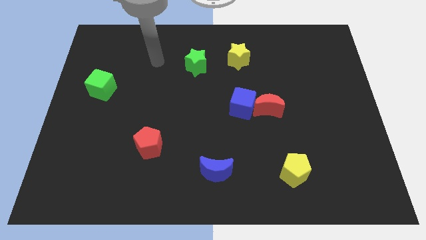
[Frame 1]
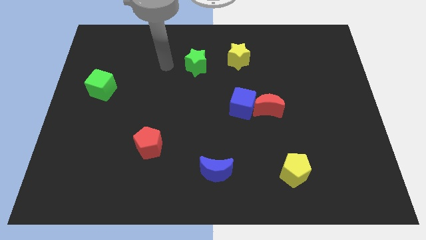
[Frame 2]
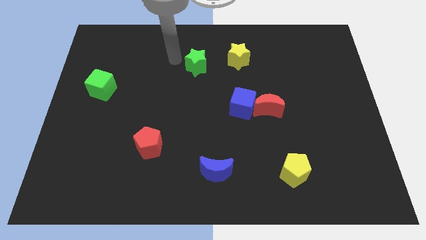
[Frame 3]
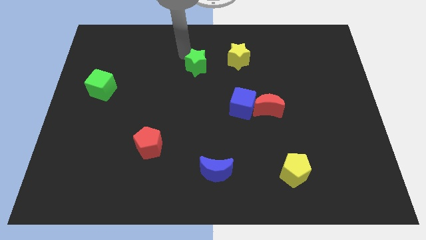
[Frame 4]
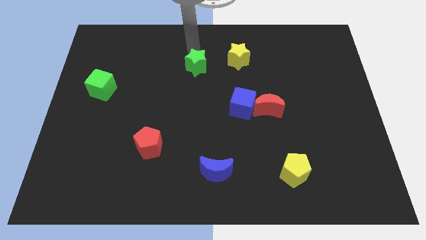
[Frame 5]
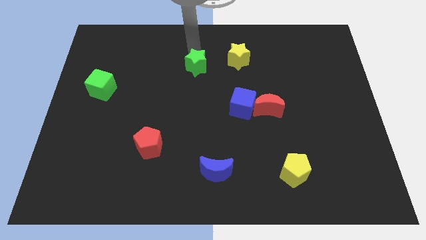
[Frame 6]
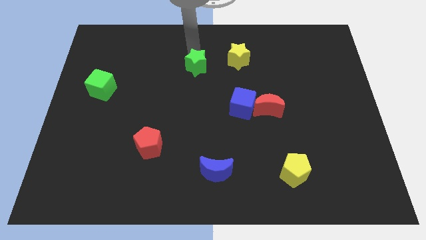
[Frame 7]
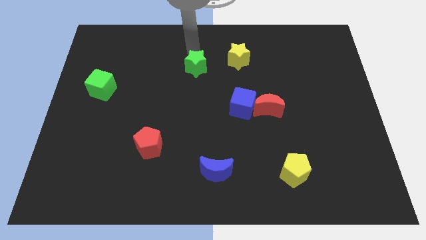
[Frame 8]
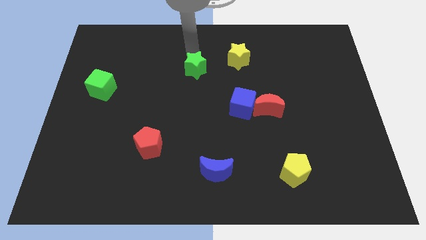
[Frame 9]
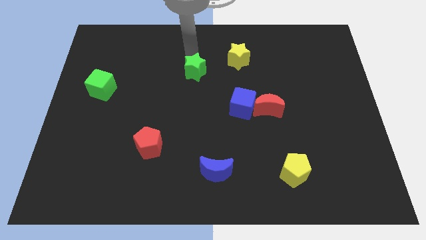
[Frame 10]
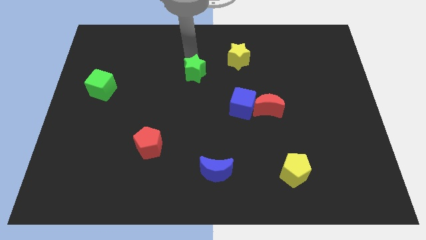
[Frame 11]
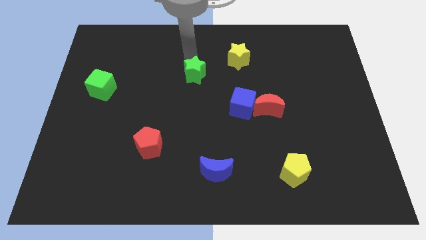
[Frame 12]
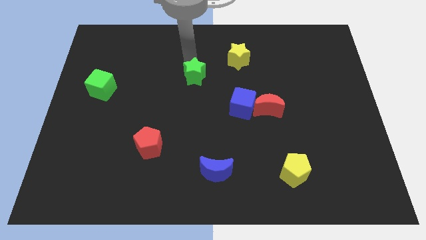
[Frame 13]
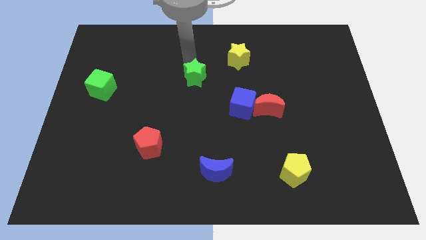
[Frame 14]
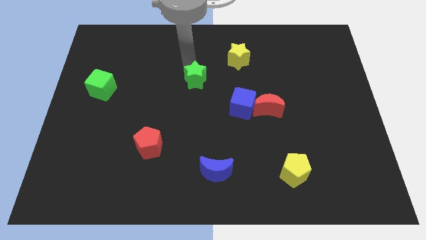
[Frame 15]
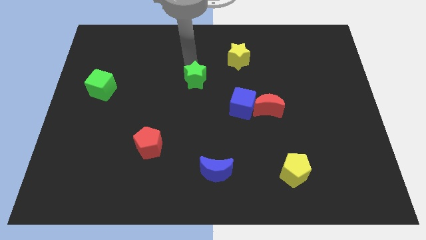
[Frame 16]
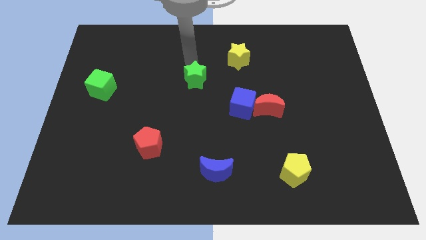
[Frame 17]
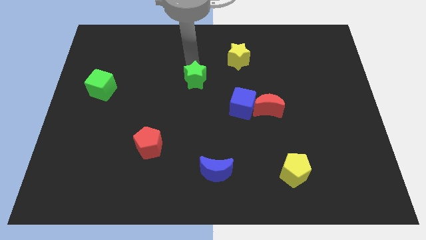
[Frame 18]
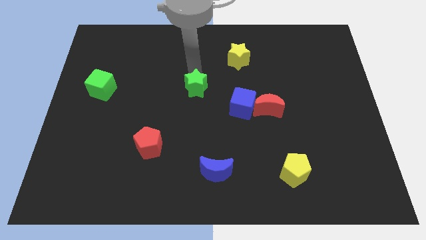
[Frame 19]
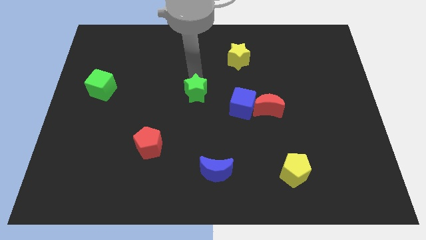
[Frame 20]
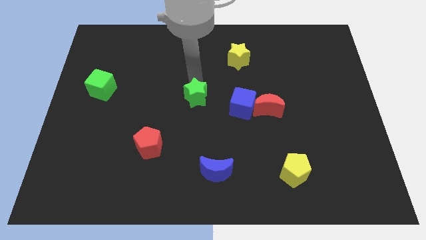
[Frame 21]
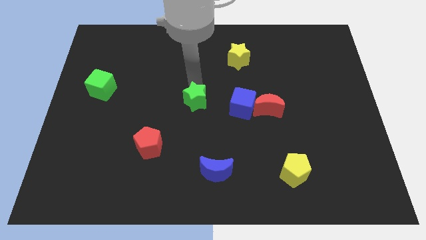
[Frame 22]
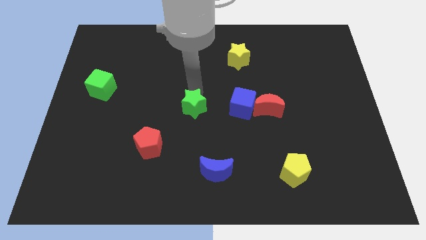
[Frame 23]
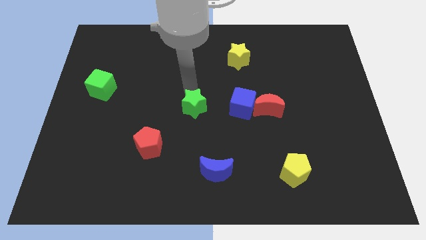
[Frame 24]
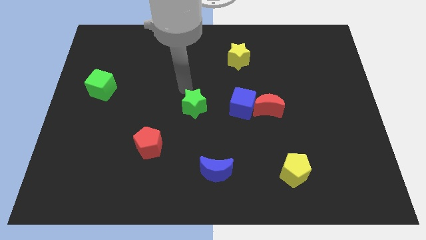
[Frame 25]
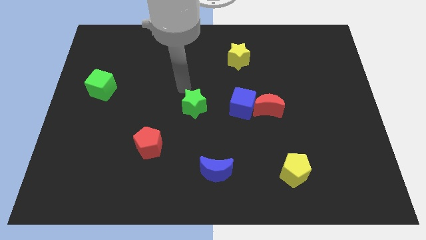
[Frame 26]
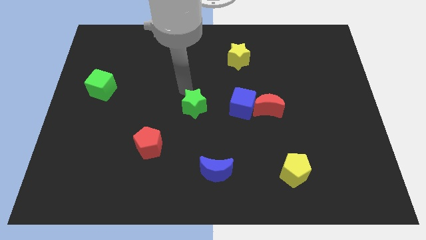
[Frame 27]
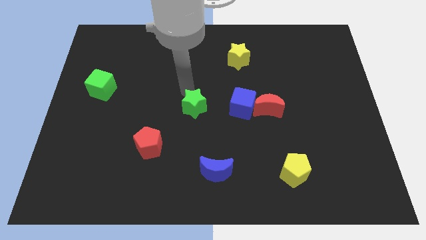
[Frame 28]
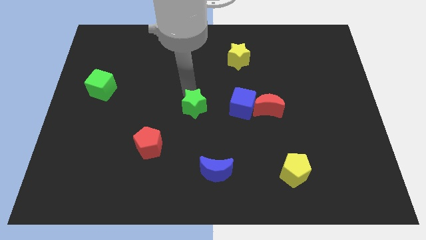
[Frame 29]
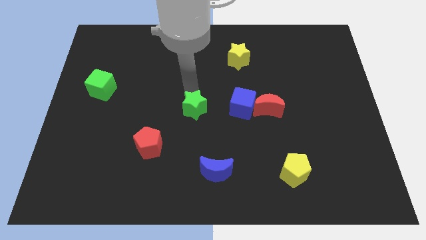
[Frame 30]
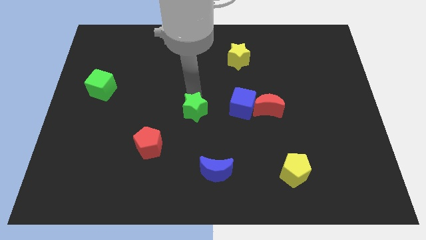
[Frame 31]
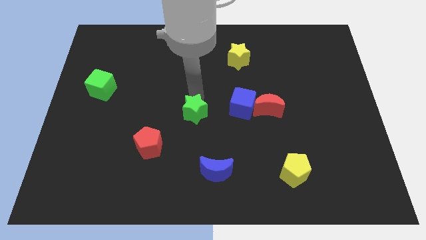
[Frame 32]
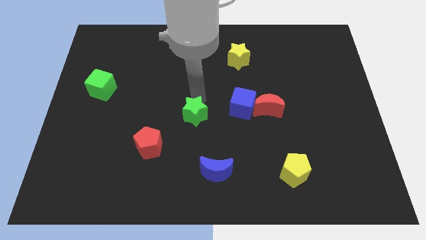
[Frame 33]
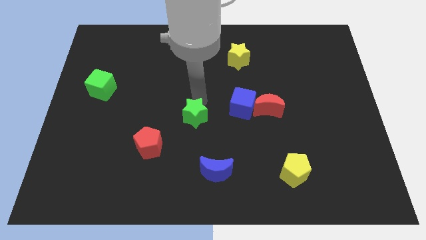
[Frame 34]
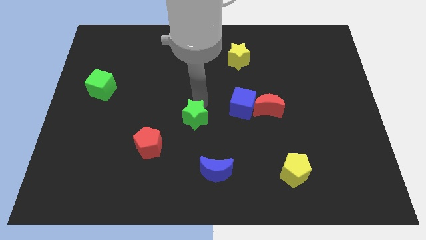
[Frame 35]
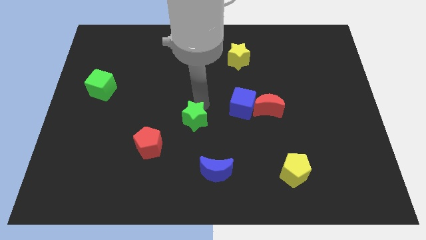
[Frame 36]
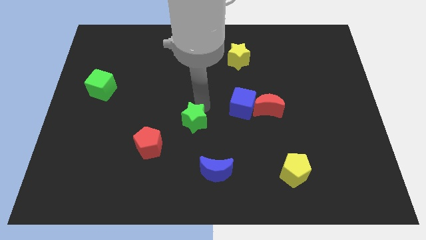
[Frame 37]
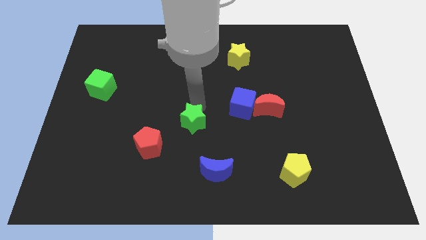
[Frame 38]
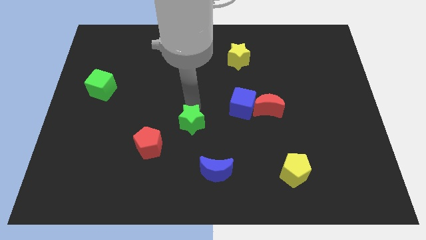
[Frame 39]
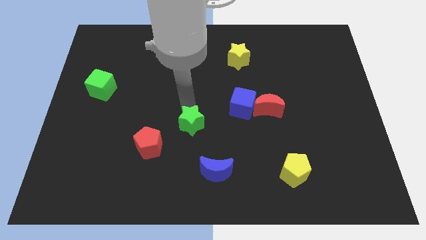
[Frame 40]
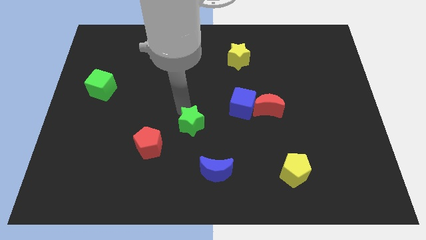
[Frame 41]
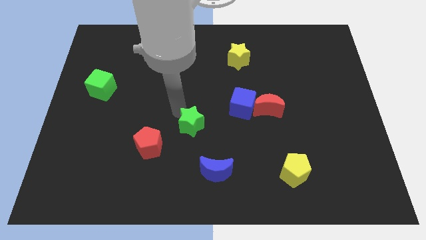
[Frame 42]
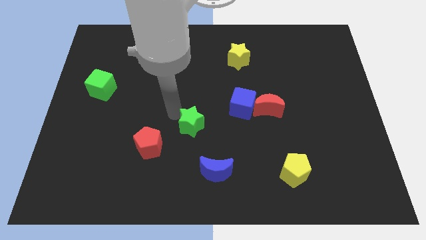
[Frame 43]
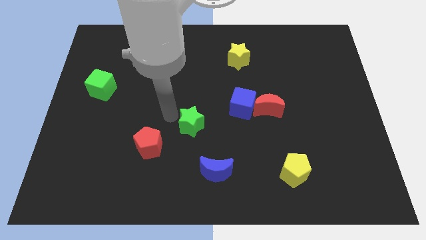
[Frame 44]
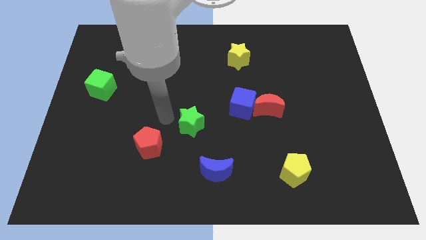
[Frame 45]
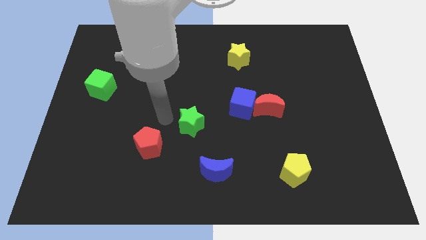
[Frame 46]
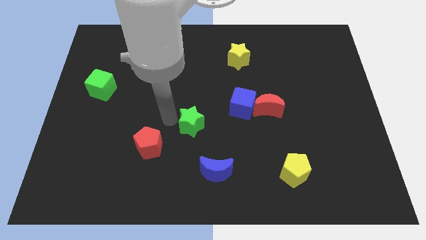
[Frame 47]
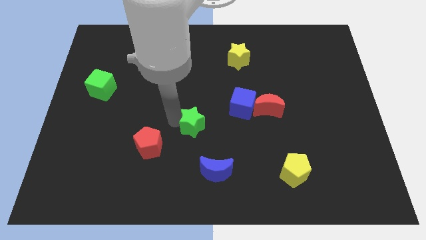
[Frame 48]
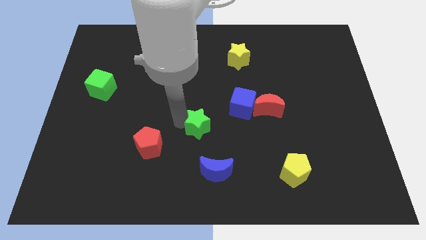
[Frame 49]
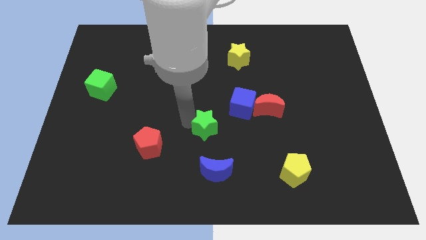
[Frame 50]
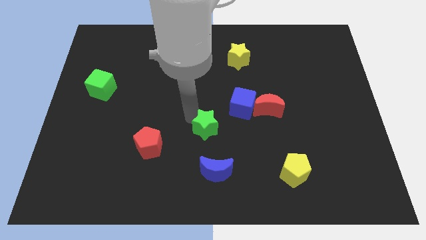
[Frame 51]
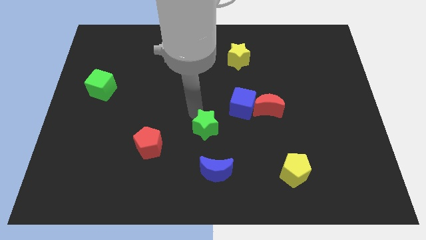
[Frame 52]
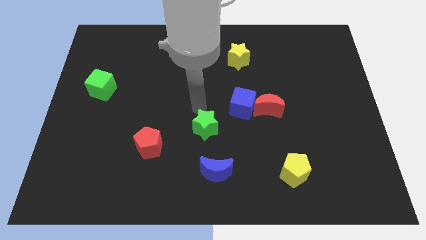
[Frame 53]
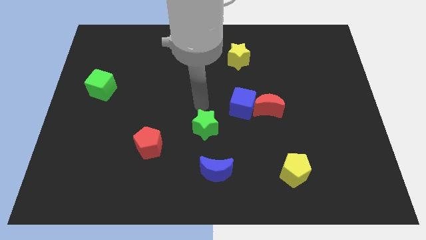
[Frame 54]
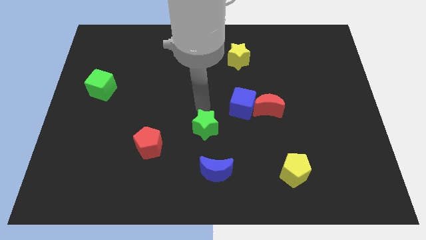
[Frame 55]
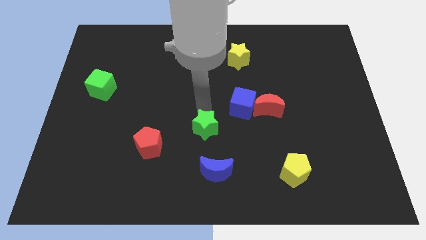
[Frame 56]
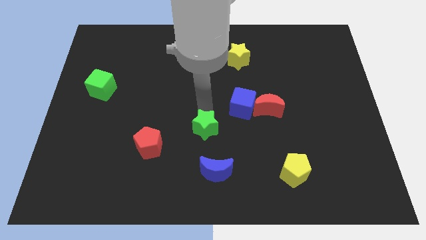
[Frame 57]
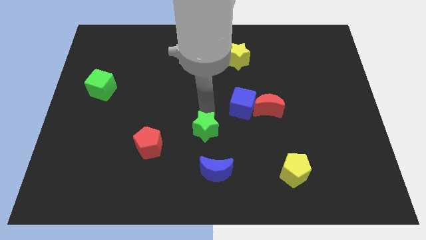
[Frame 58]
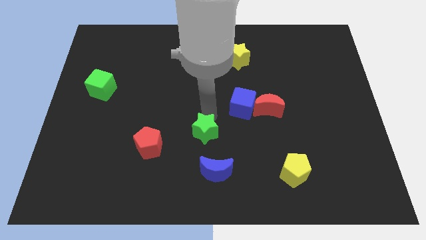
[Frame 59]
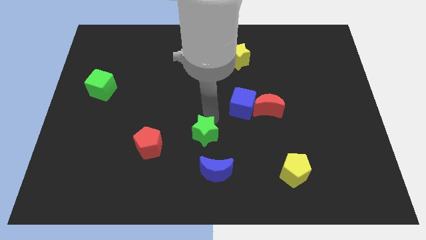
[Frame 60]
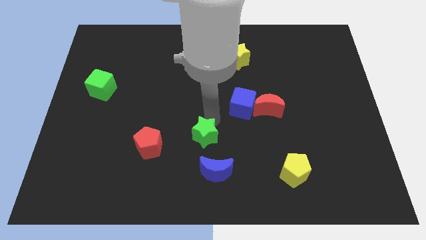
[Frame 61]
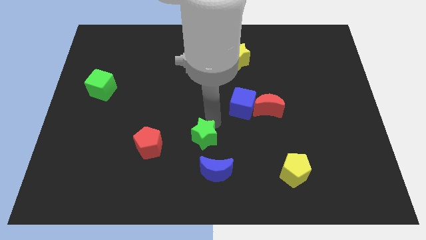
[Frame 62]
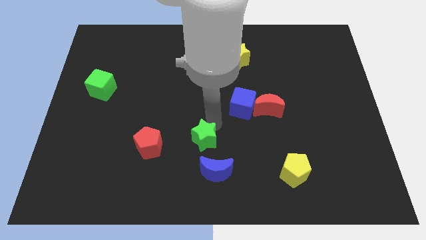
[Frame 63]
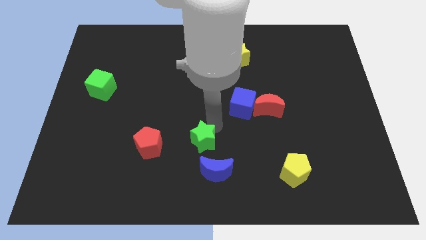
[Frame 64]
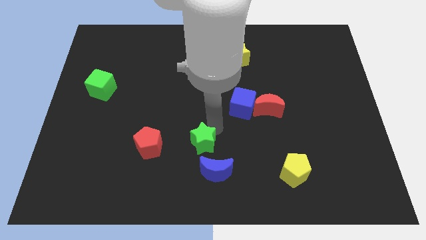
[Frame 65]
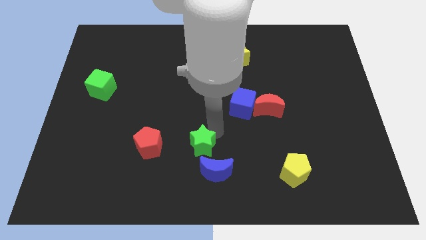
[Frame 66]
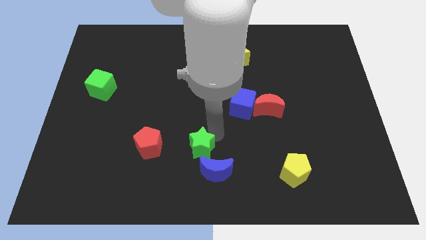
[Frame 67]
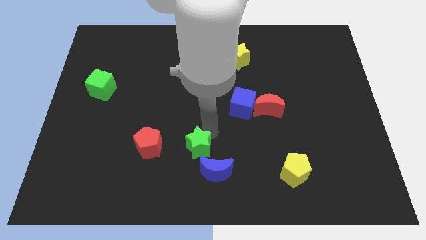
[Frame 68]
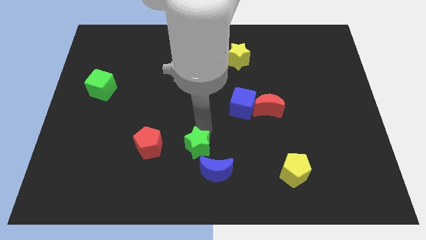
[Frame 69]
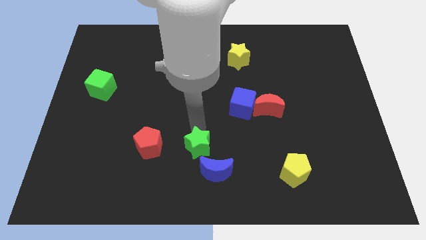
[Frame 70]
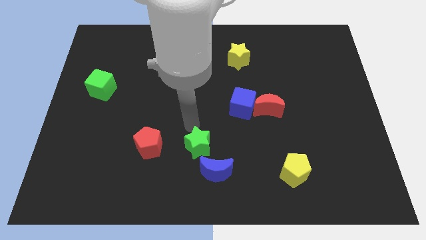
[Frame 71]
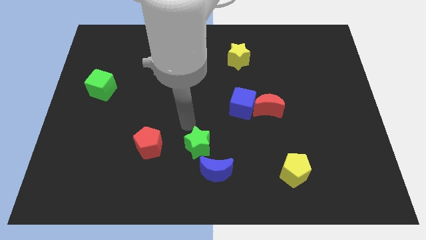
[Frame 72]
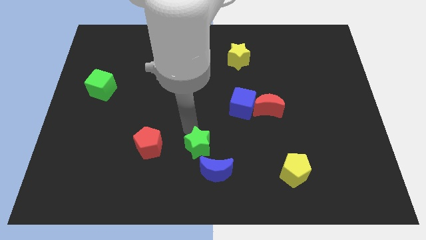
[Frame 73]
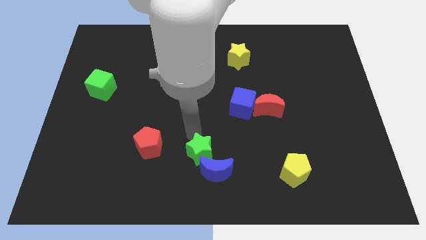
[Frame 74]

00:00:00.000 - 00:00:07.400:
put the green star towards the blue moon
